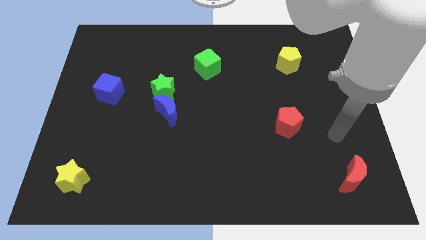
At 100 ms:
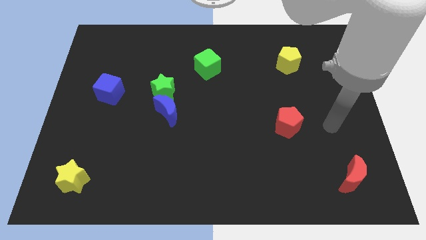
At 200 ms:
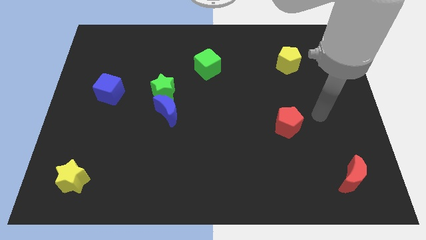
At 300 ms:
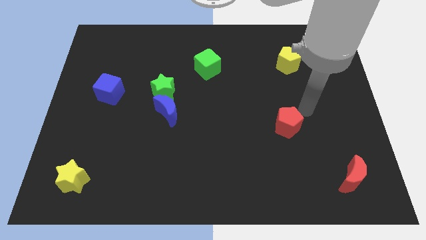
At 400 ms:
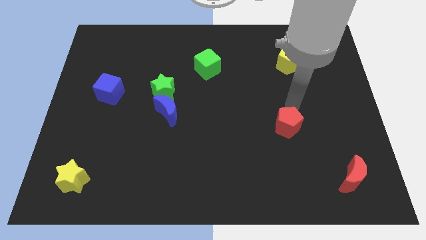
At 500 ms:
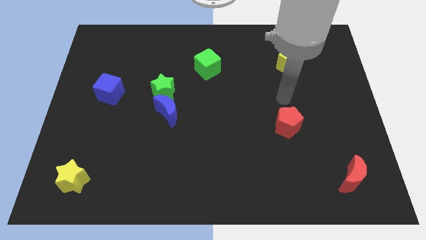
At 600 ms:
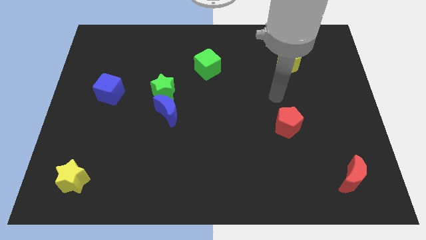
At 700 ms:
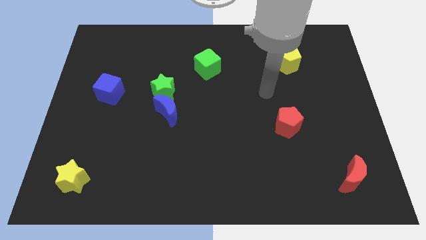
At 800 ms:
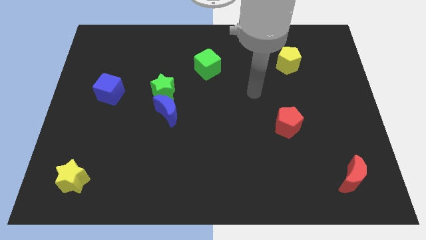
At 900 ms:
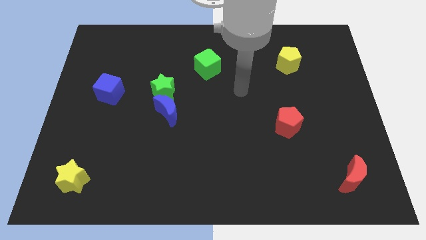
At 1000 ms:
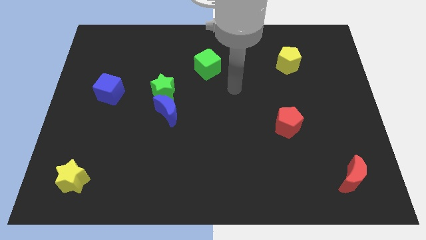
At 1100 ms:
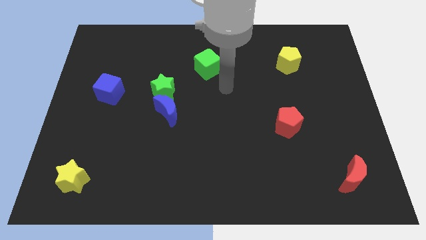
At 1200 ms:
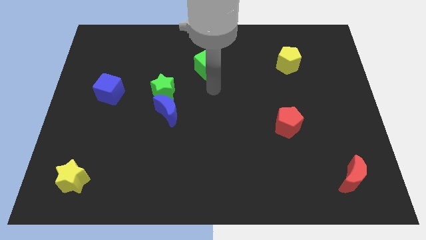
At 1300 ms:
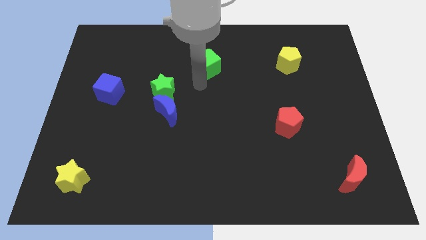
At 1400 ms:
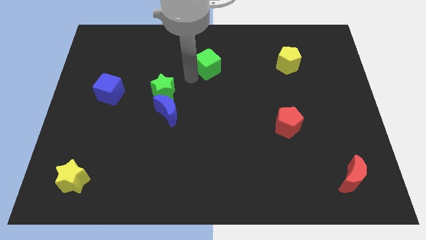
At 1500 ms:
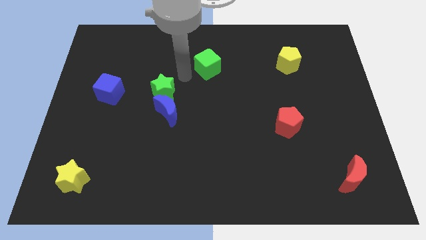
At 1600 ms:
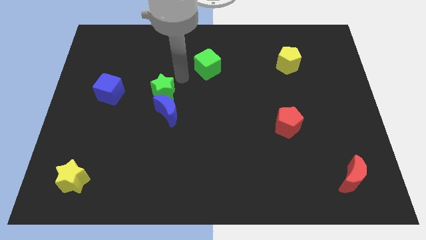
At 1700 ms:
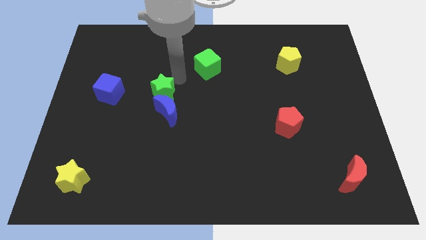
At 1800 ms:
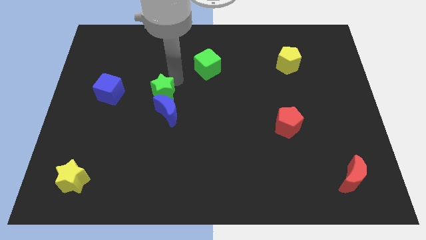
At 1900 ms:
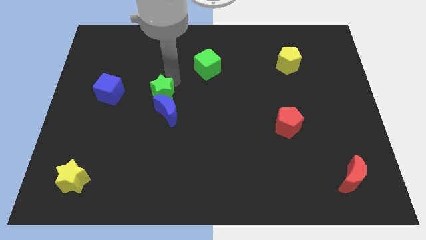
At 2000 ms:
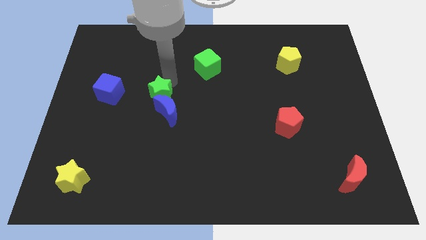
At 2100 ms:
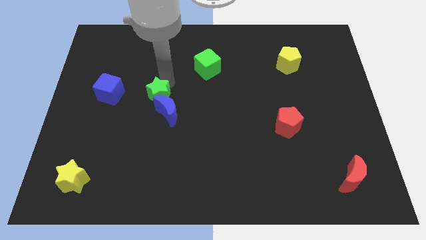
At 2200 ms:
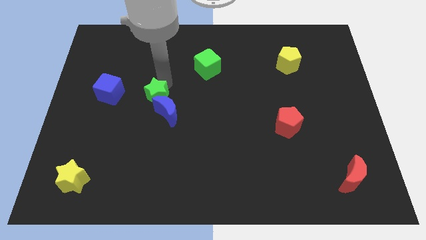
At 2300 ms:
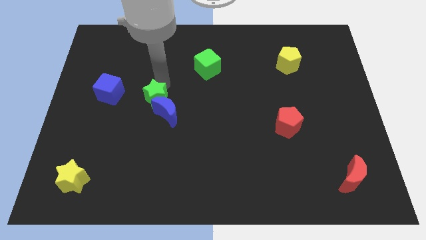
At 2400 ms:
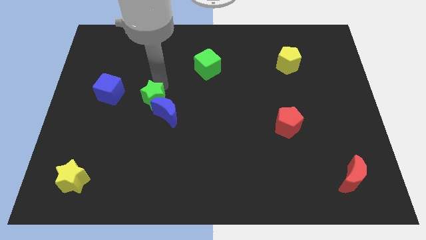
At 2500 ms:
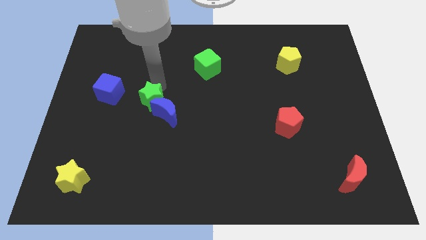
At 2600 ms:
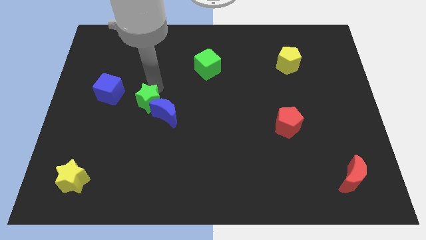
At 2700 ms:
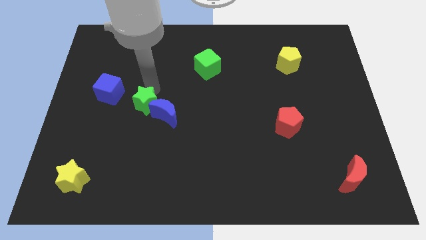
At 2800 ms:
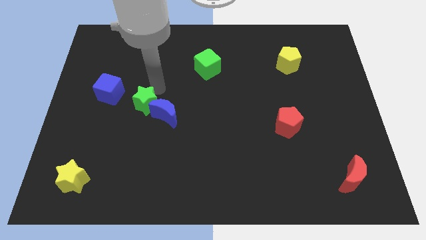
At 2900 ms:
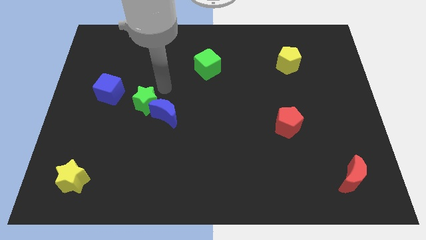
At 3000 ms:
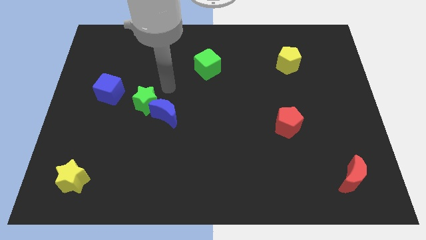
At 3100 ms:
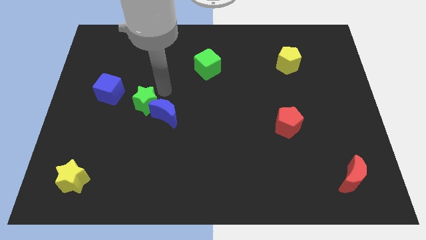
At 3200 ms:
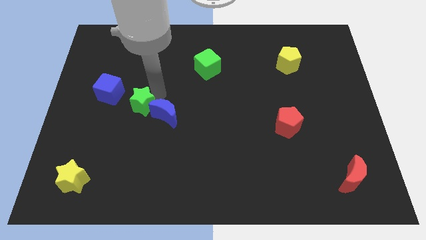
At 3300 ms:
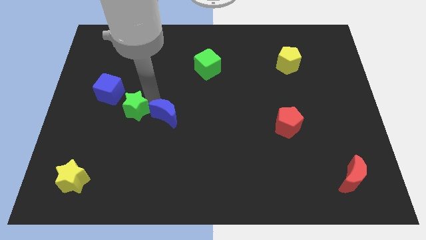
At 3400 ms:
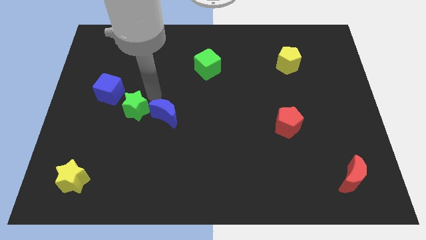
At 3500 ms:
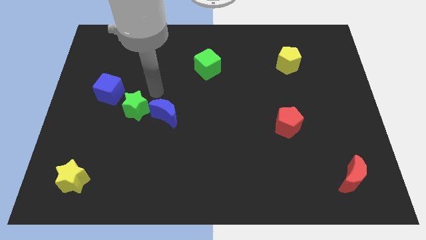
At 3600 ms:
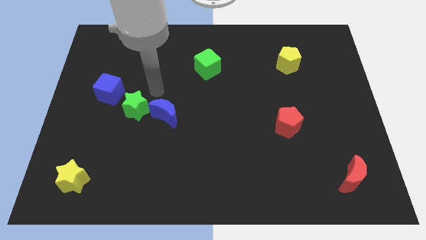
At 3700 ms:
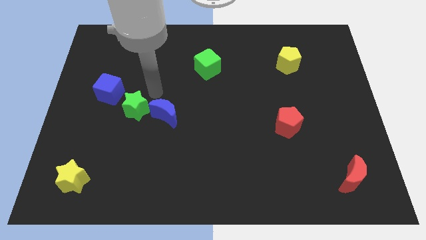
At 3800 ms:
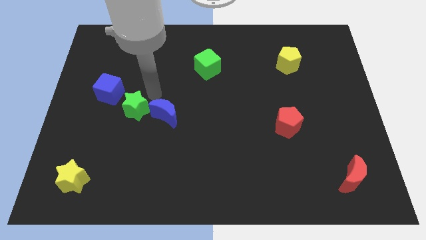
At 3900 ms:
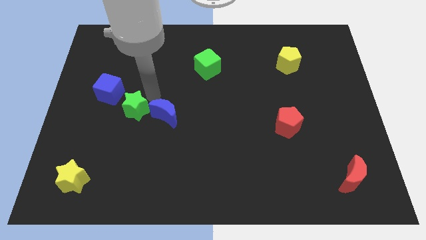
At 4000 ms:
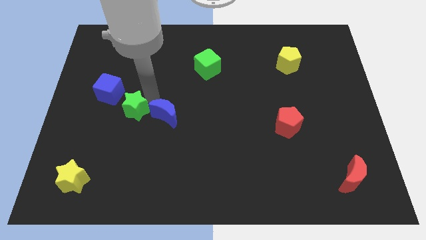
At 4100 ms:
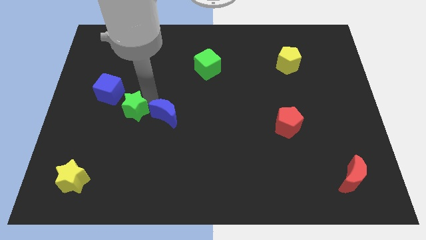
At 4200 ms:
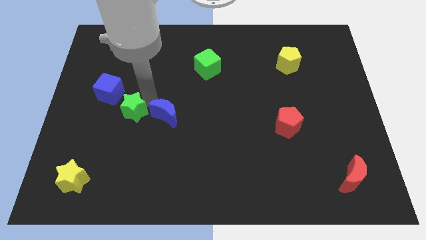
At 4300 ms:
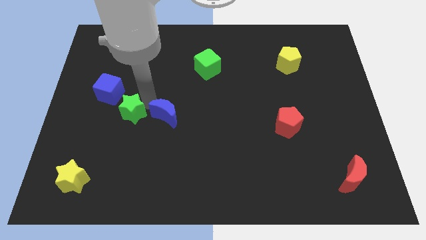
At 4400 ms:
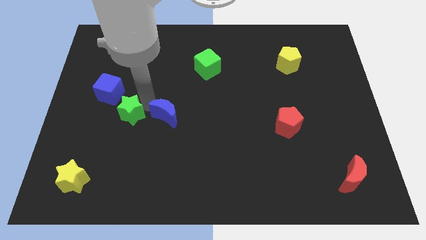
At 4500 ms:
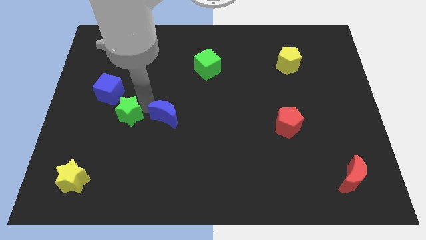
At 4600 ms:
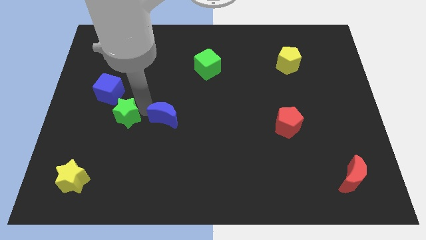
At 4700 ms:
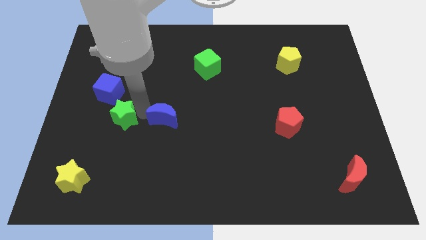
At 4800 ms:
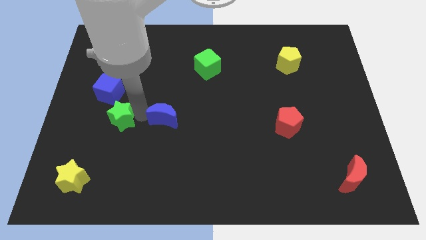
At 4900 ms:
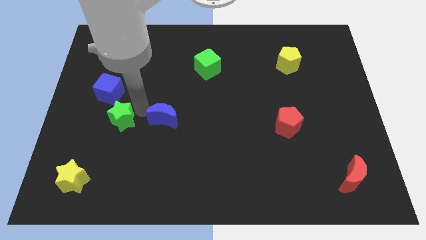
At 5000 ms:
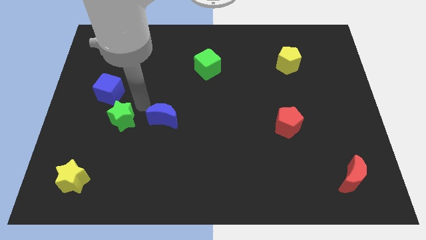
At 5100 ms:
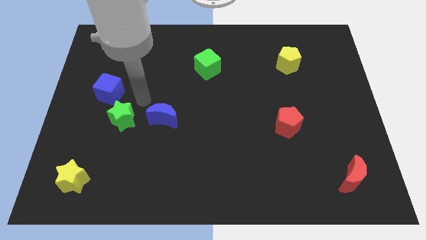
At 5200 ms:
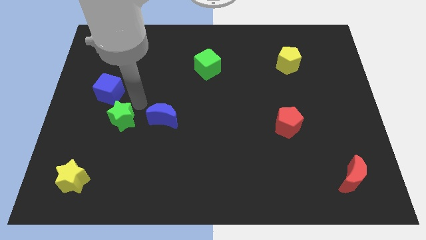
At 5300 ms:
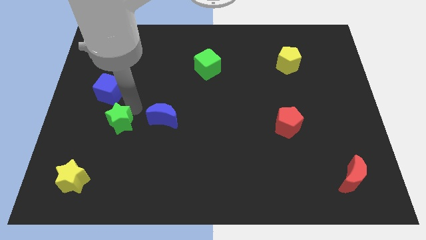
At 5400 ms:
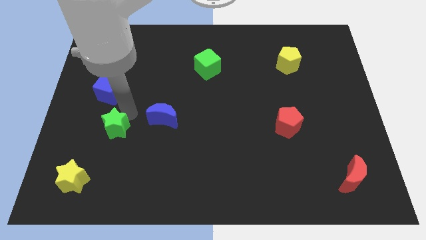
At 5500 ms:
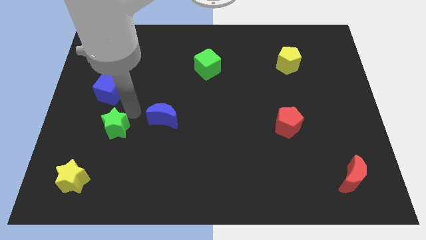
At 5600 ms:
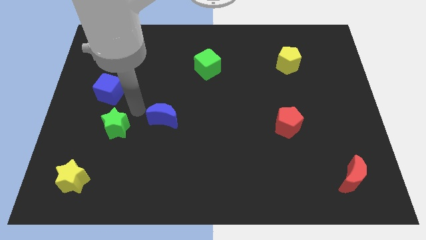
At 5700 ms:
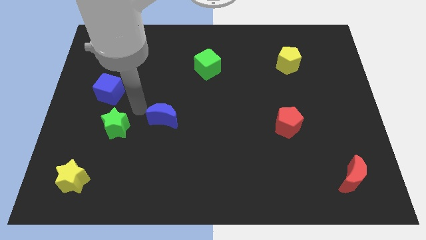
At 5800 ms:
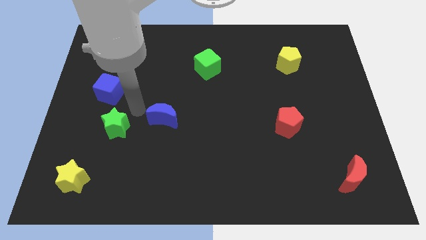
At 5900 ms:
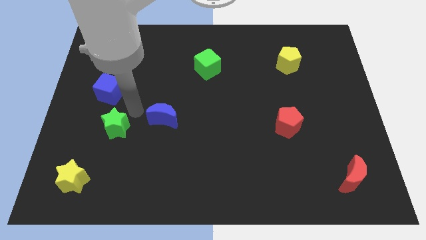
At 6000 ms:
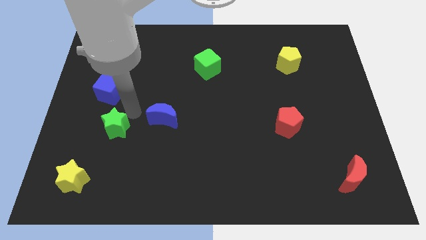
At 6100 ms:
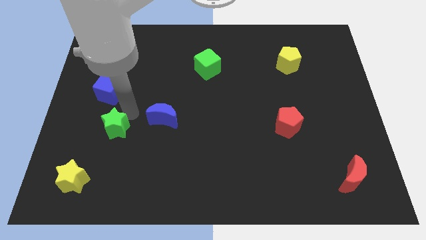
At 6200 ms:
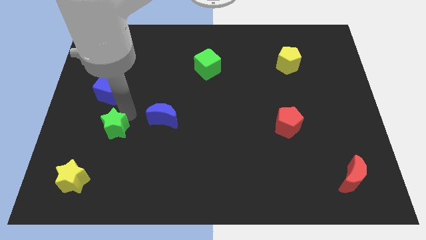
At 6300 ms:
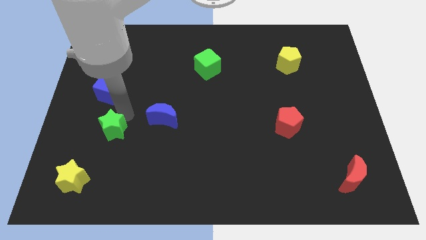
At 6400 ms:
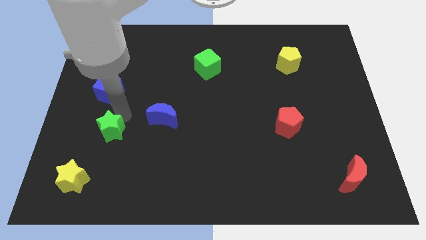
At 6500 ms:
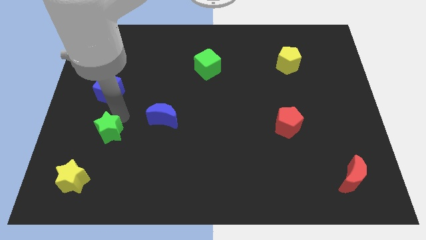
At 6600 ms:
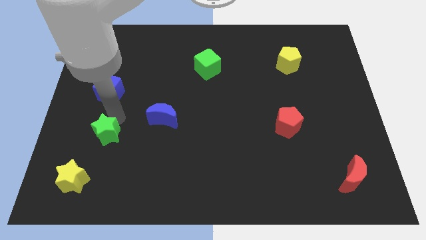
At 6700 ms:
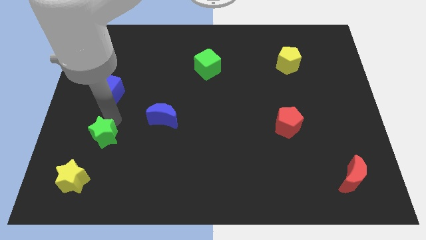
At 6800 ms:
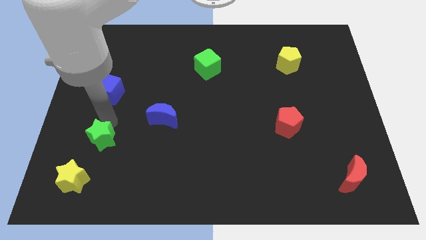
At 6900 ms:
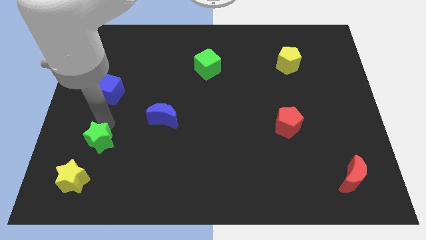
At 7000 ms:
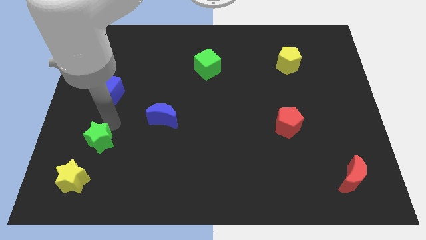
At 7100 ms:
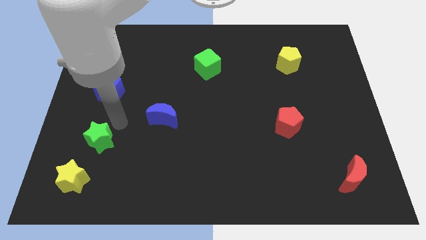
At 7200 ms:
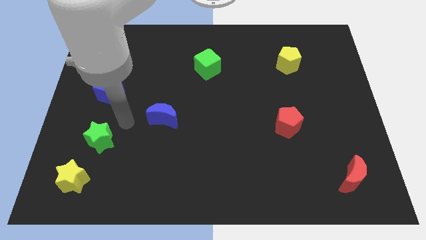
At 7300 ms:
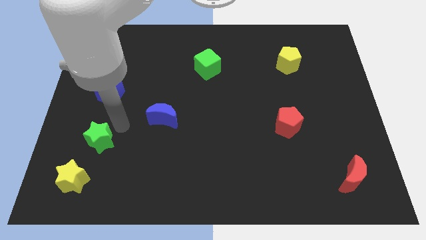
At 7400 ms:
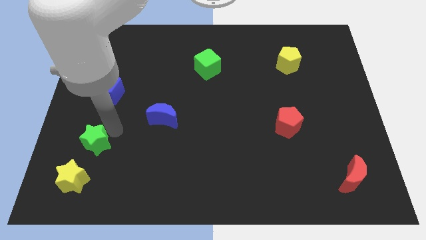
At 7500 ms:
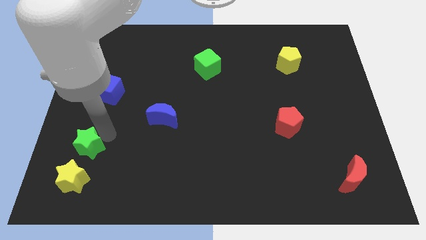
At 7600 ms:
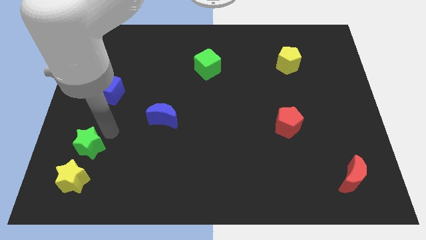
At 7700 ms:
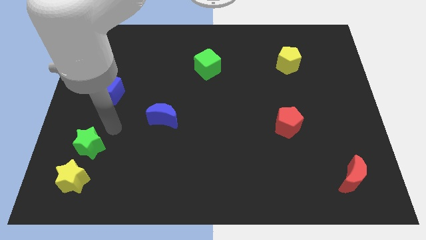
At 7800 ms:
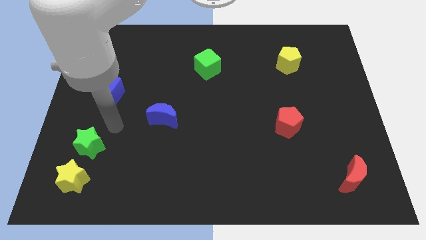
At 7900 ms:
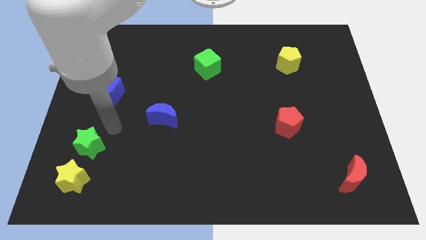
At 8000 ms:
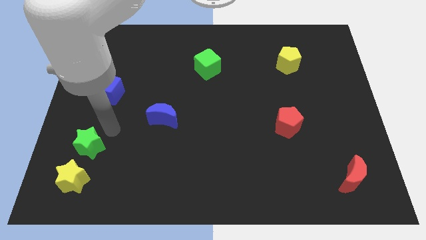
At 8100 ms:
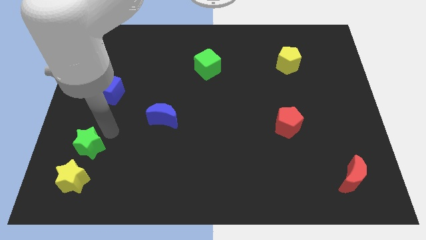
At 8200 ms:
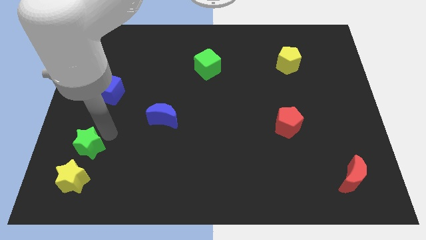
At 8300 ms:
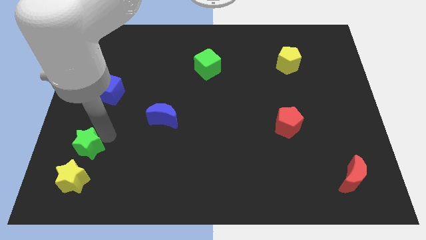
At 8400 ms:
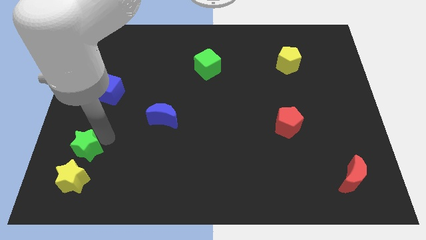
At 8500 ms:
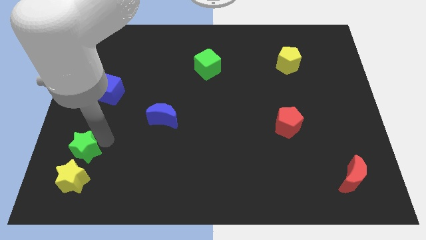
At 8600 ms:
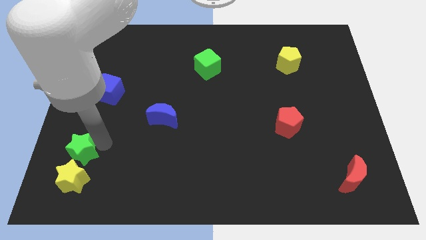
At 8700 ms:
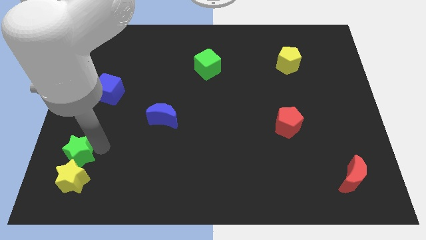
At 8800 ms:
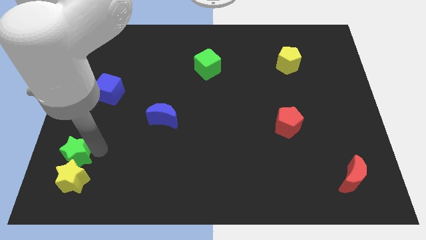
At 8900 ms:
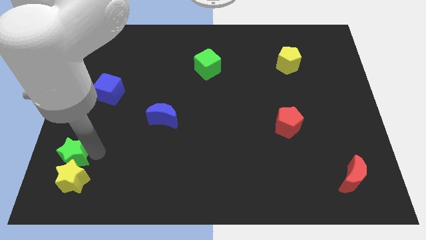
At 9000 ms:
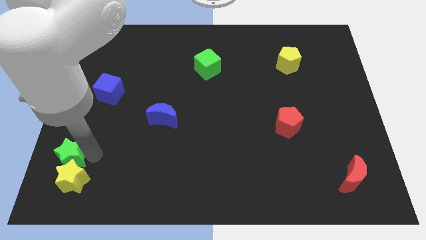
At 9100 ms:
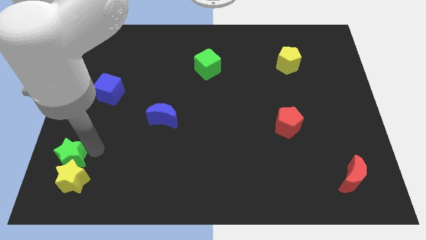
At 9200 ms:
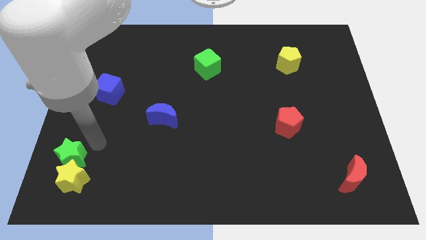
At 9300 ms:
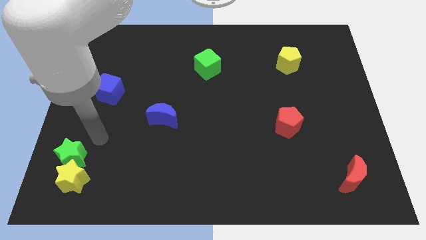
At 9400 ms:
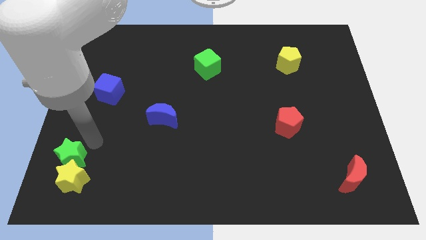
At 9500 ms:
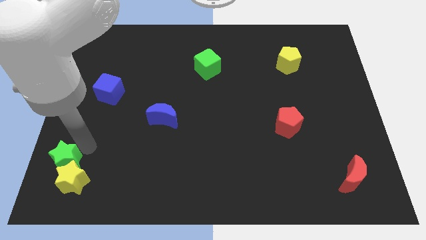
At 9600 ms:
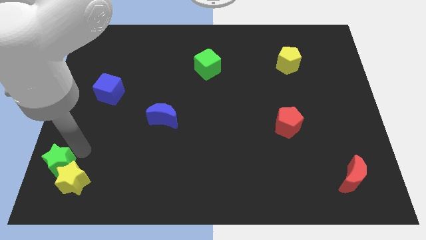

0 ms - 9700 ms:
move the green star to the bottom left corner
